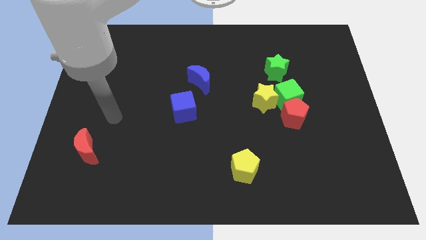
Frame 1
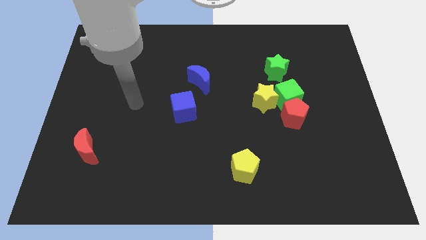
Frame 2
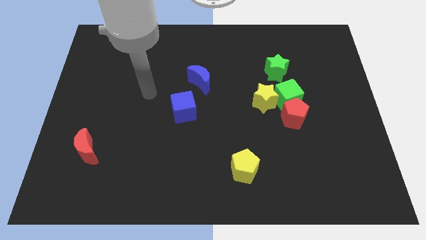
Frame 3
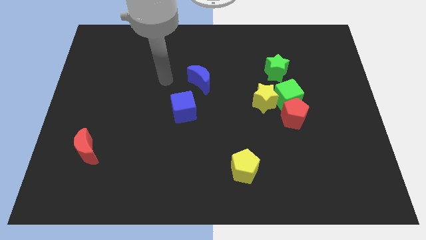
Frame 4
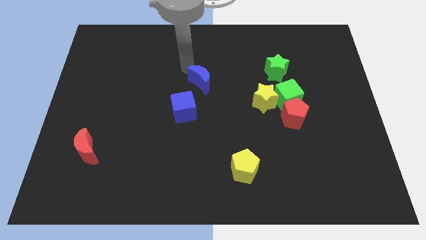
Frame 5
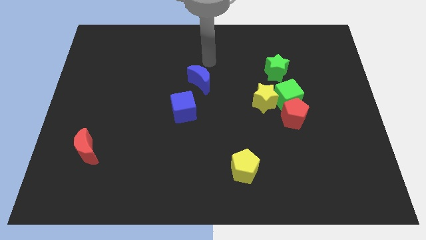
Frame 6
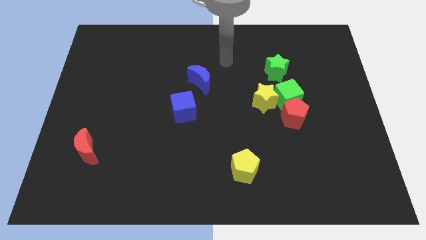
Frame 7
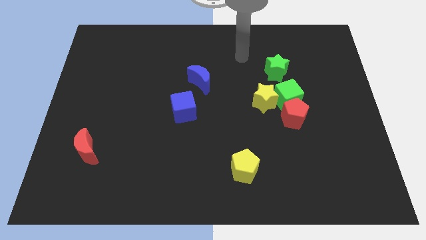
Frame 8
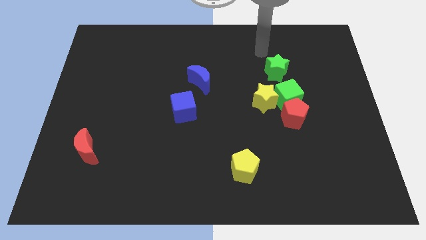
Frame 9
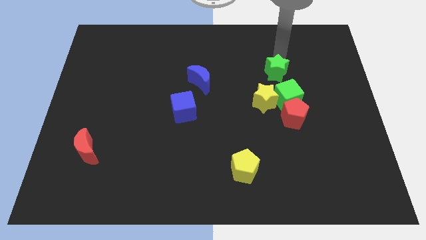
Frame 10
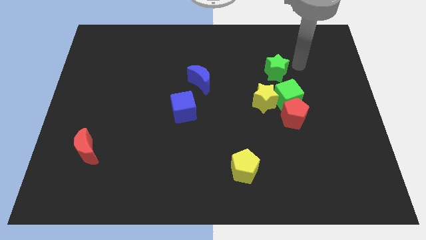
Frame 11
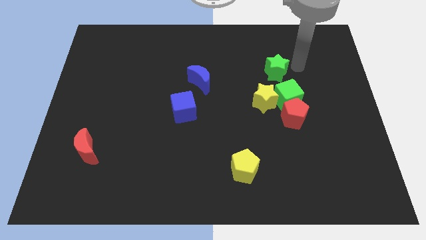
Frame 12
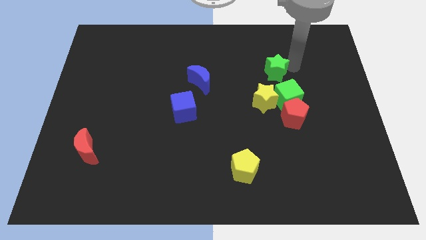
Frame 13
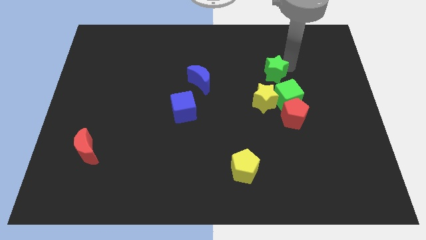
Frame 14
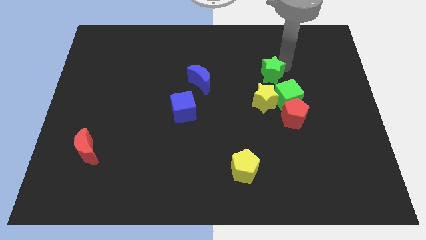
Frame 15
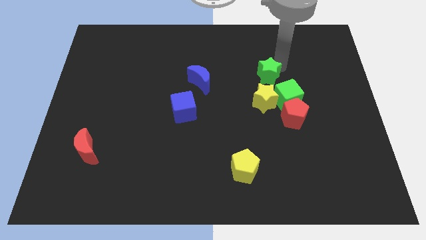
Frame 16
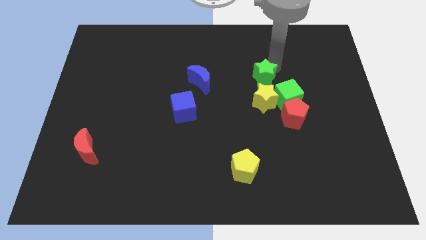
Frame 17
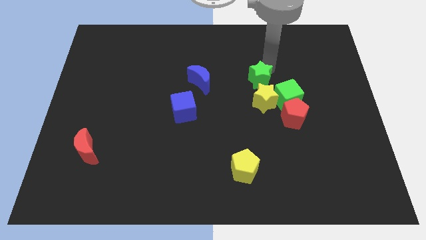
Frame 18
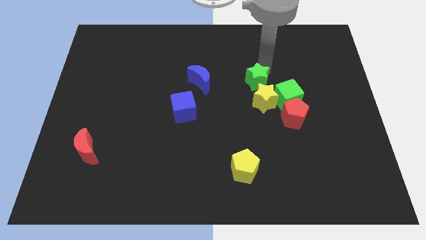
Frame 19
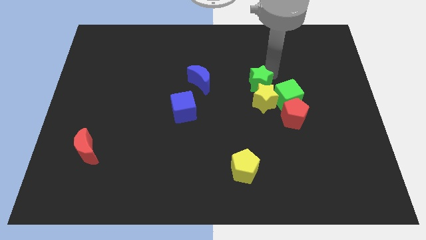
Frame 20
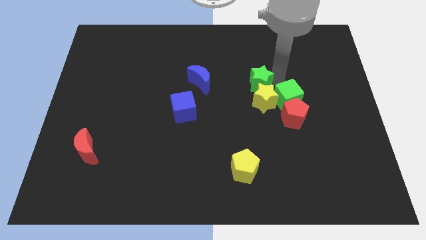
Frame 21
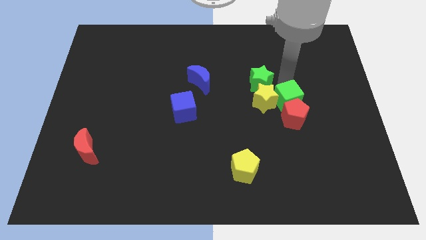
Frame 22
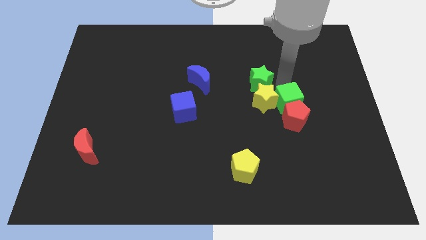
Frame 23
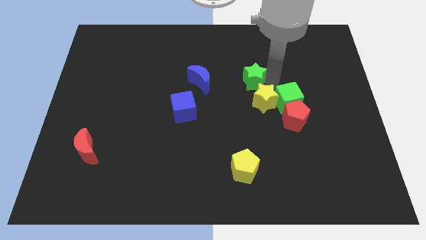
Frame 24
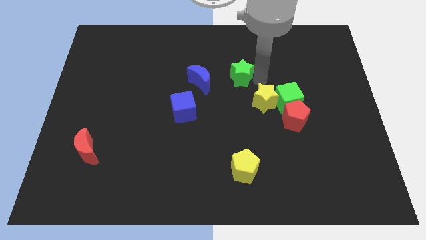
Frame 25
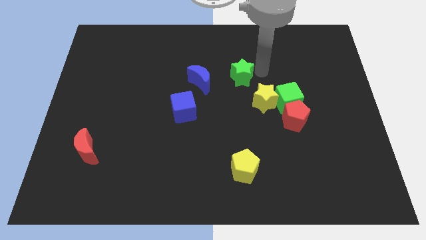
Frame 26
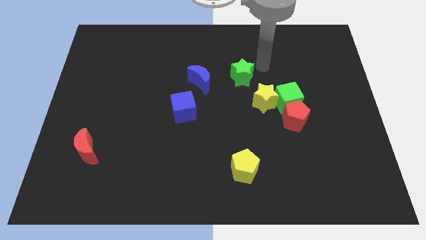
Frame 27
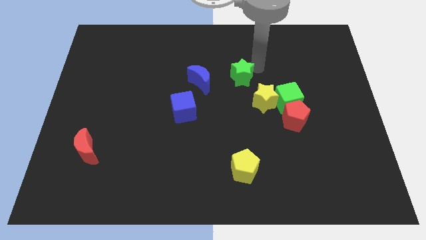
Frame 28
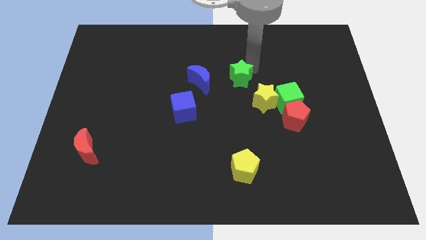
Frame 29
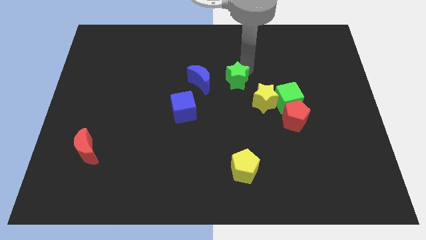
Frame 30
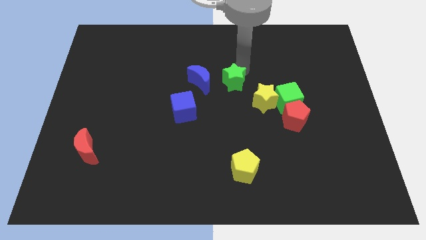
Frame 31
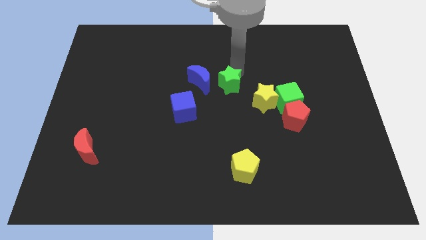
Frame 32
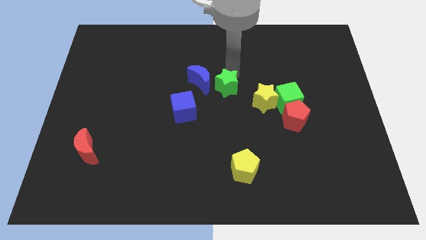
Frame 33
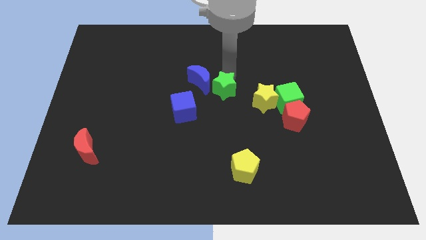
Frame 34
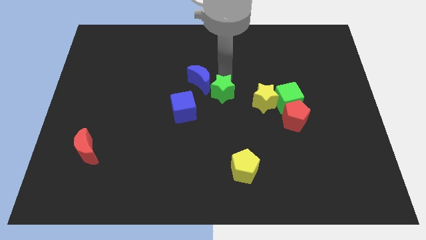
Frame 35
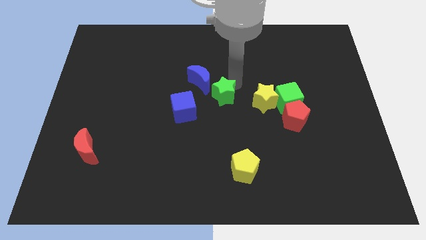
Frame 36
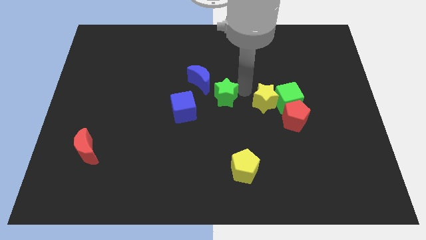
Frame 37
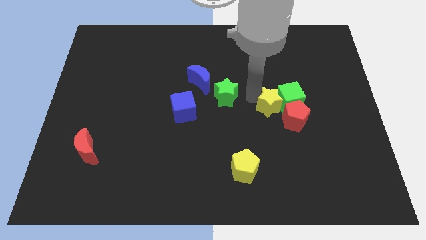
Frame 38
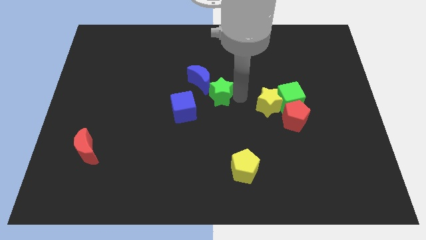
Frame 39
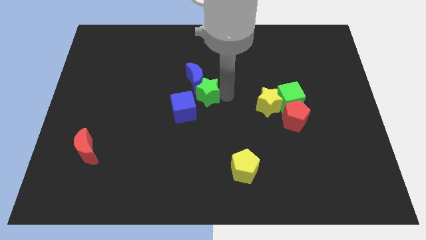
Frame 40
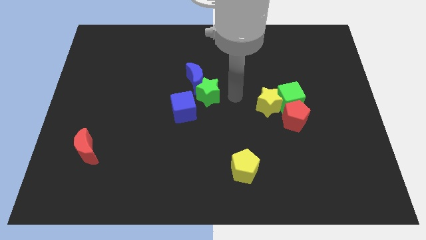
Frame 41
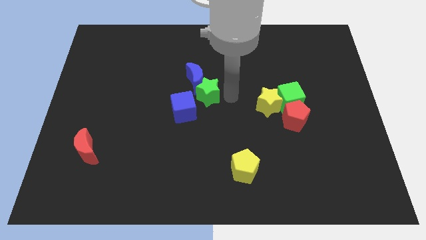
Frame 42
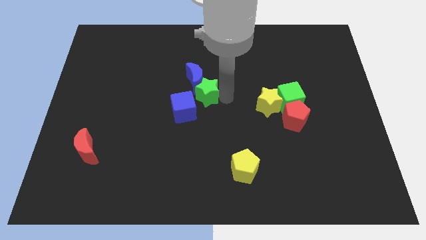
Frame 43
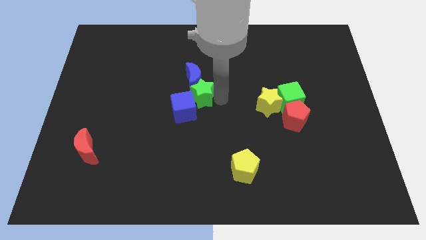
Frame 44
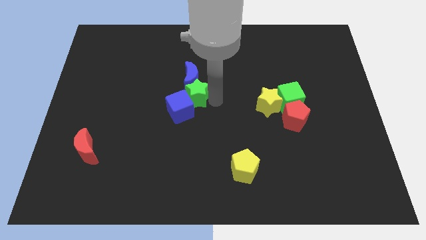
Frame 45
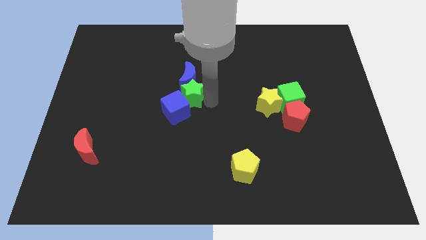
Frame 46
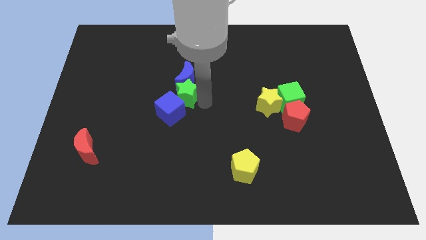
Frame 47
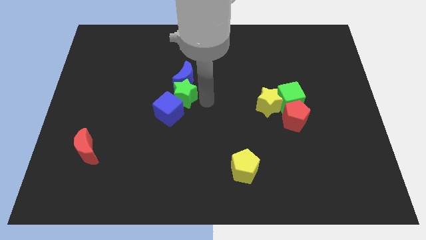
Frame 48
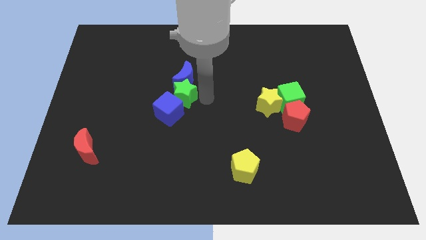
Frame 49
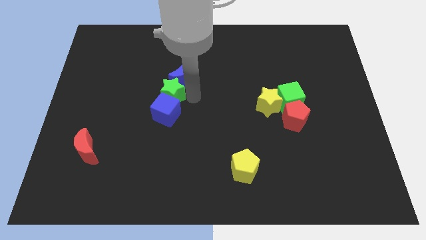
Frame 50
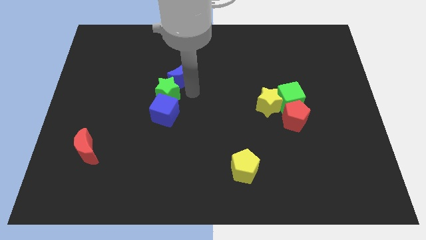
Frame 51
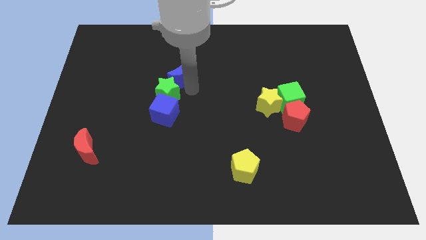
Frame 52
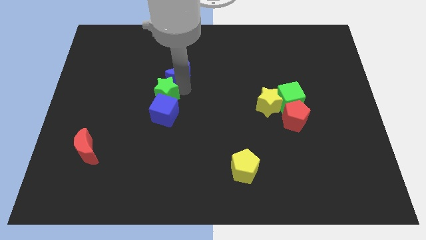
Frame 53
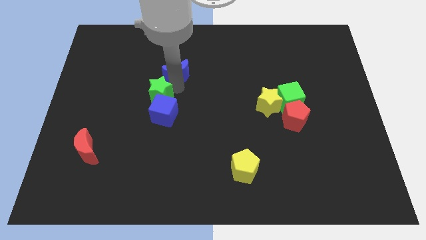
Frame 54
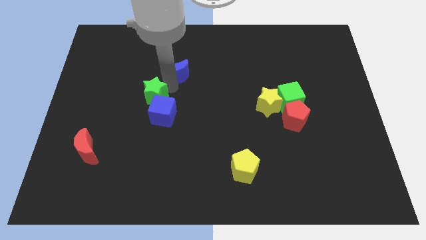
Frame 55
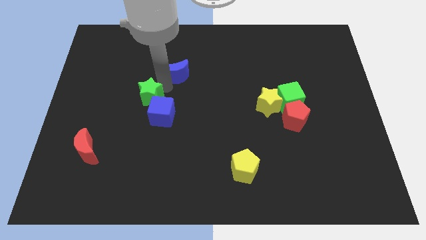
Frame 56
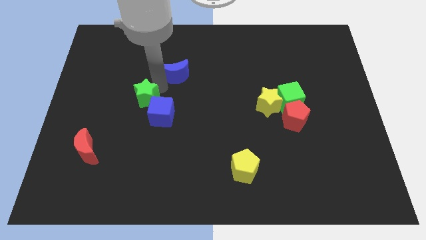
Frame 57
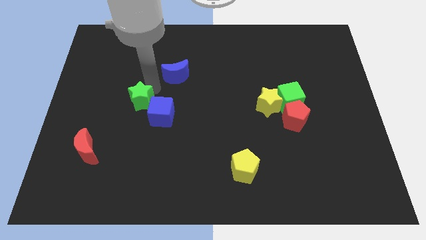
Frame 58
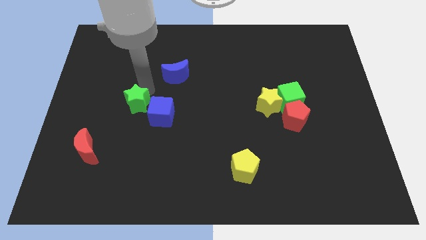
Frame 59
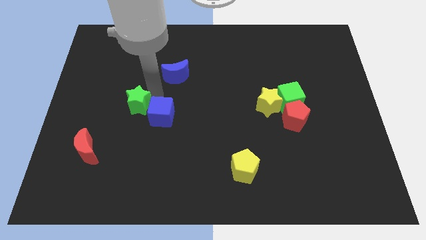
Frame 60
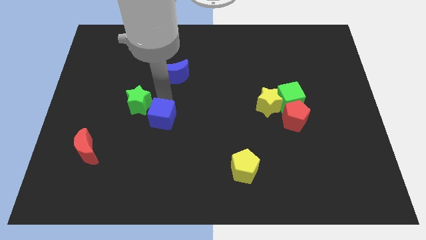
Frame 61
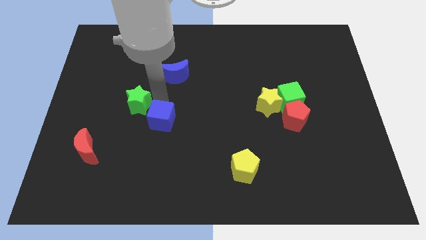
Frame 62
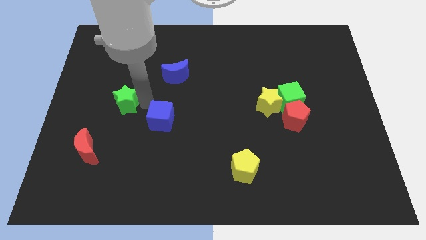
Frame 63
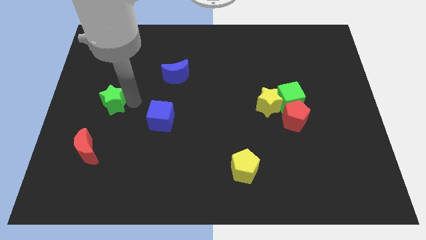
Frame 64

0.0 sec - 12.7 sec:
slide the green star to the top of the red moon
